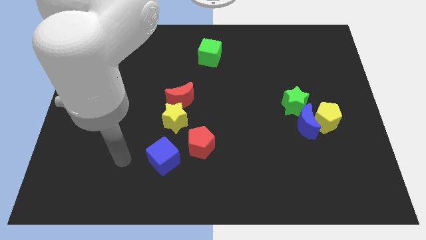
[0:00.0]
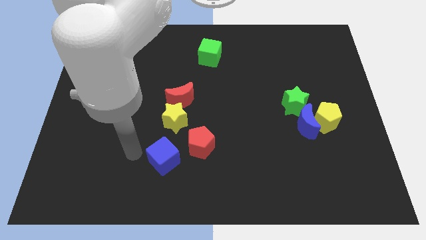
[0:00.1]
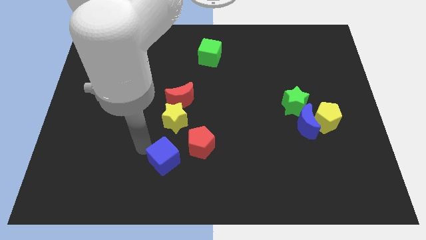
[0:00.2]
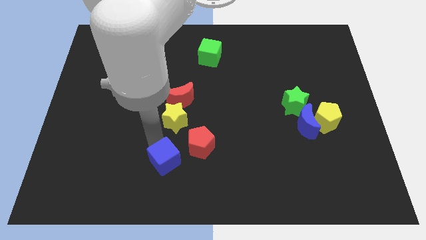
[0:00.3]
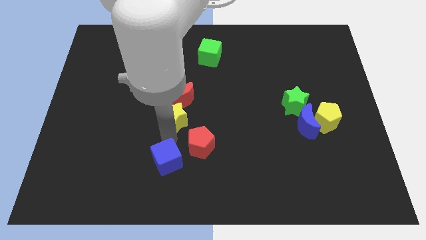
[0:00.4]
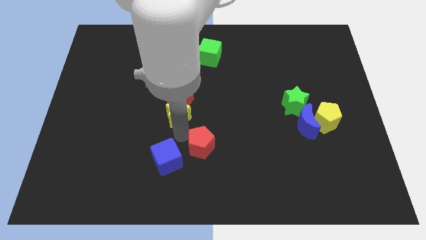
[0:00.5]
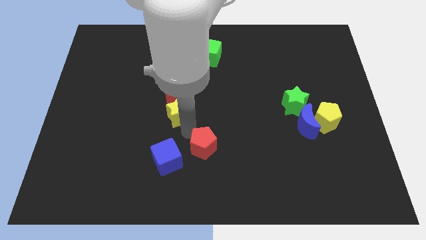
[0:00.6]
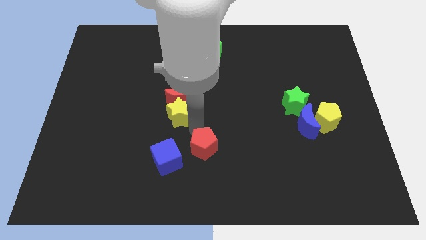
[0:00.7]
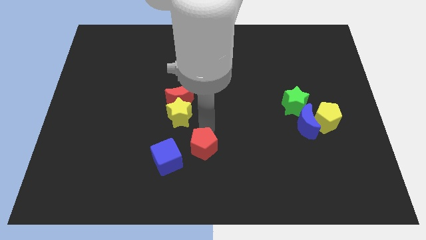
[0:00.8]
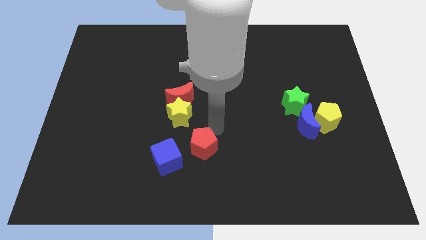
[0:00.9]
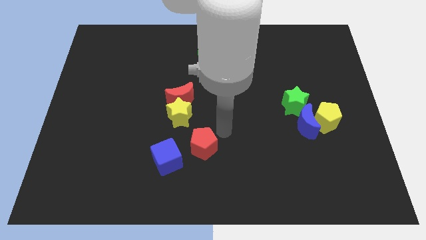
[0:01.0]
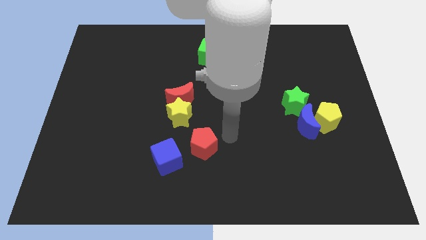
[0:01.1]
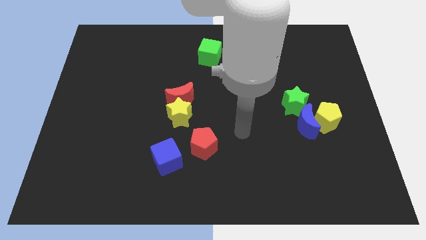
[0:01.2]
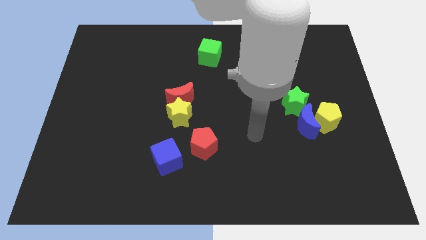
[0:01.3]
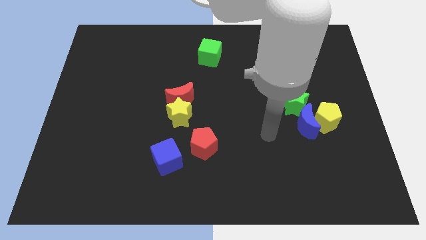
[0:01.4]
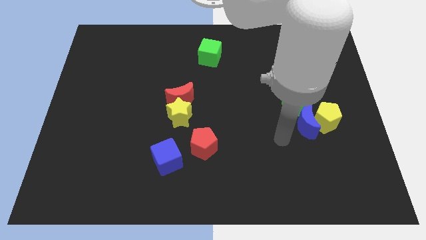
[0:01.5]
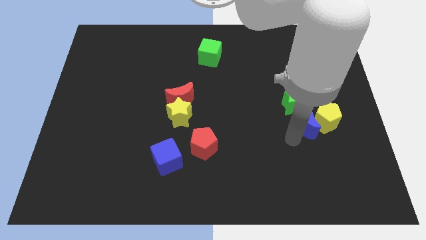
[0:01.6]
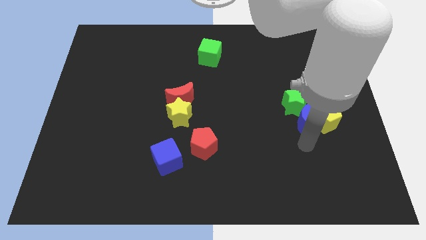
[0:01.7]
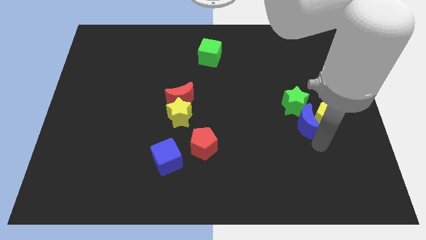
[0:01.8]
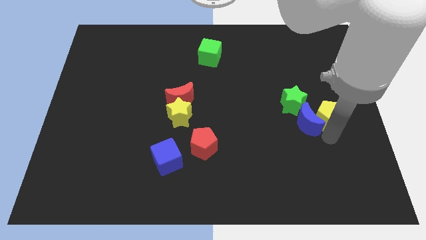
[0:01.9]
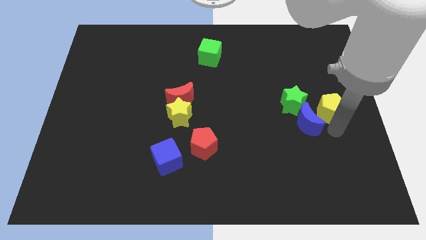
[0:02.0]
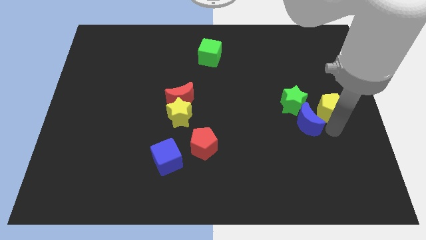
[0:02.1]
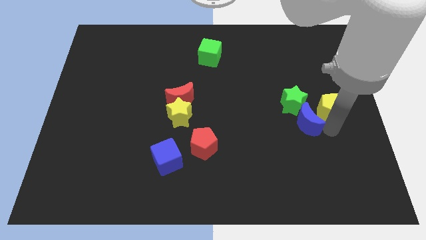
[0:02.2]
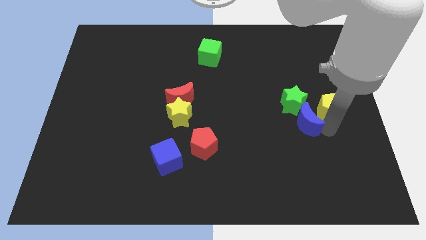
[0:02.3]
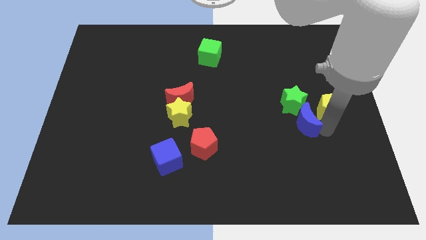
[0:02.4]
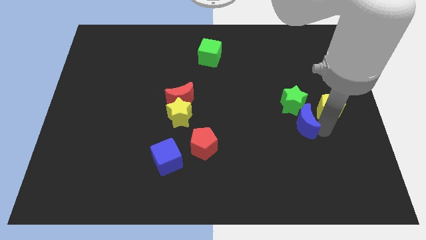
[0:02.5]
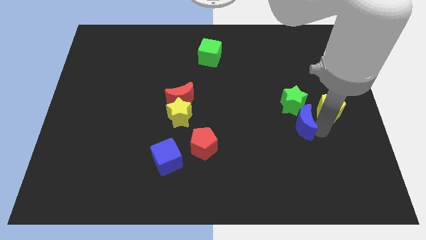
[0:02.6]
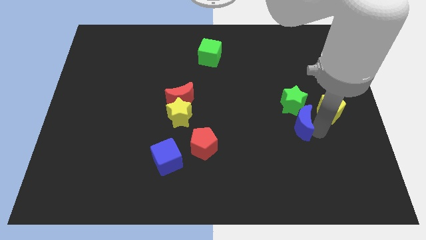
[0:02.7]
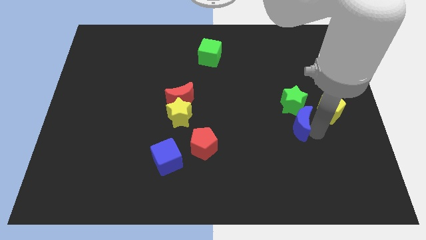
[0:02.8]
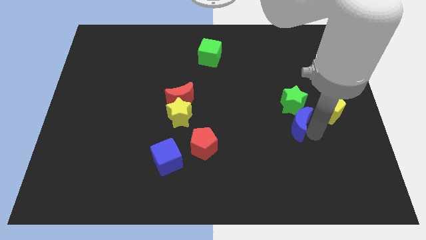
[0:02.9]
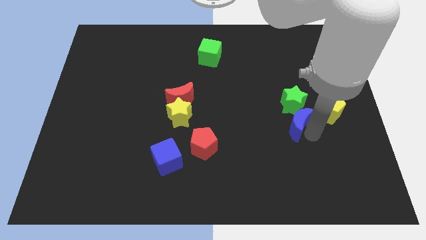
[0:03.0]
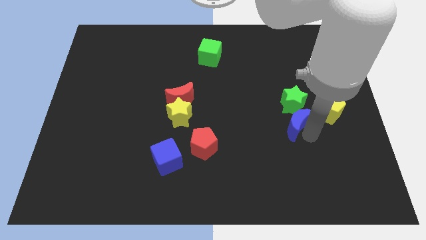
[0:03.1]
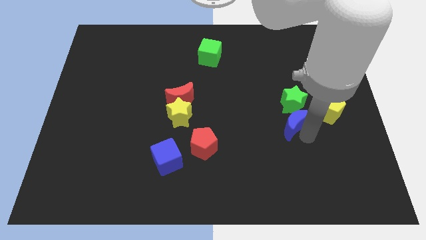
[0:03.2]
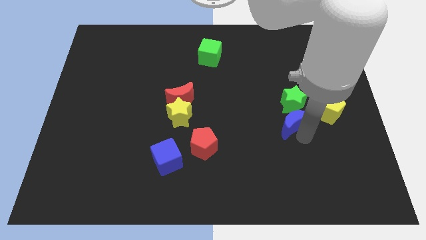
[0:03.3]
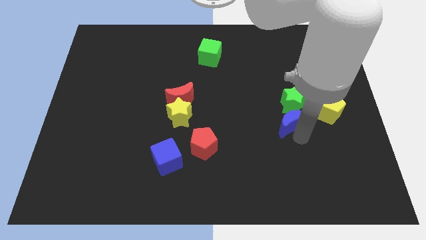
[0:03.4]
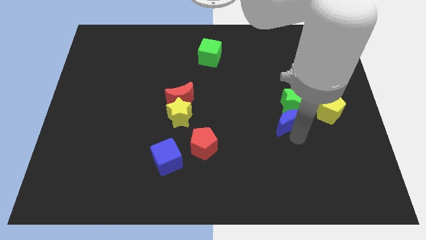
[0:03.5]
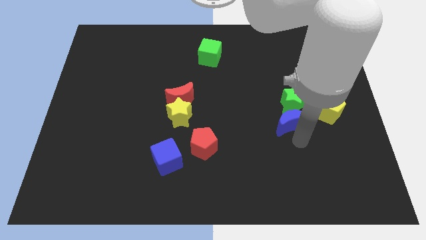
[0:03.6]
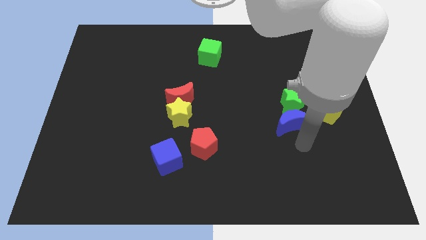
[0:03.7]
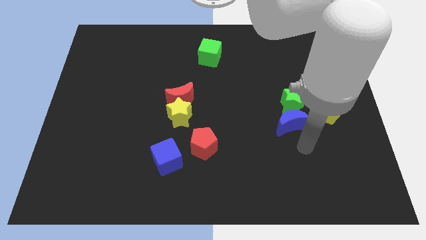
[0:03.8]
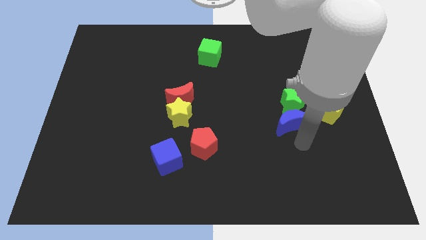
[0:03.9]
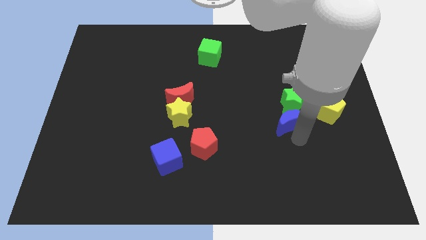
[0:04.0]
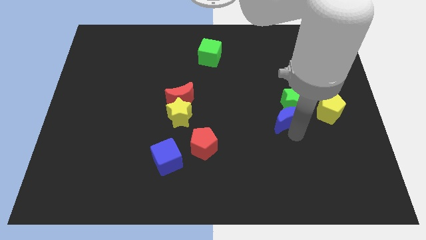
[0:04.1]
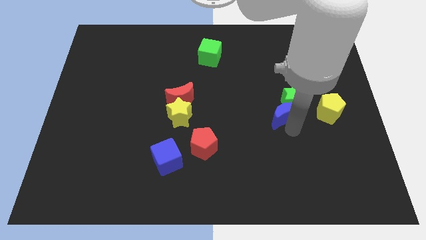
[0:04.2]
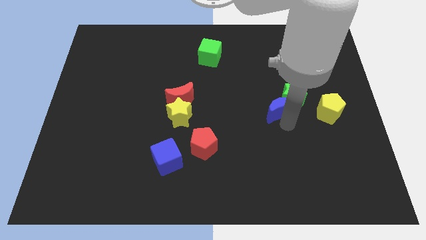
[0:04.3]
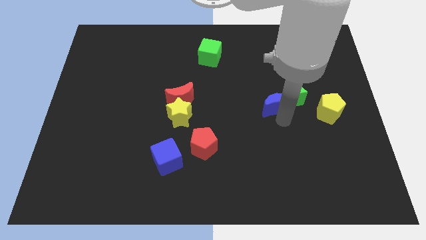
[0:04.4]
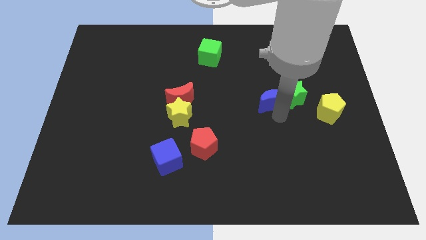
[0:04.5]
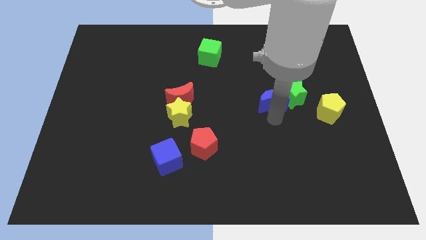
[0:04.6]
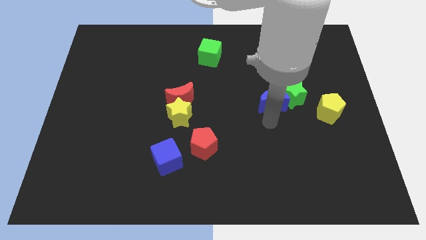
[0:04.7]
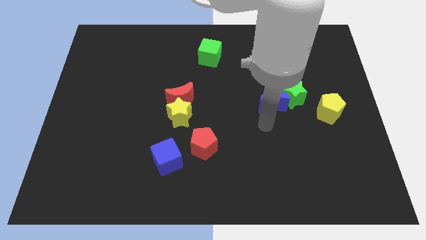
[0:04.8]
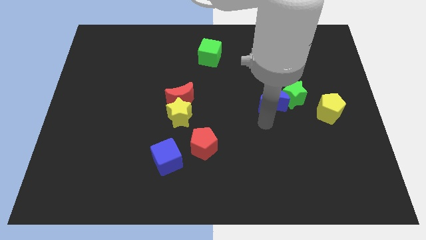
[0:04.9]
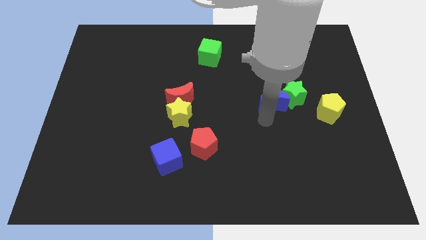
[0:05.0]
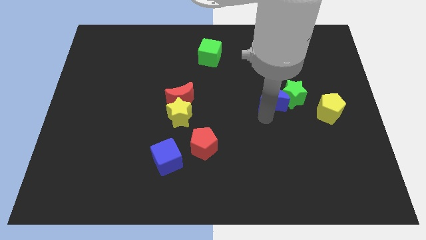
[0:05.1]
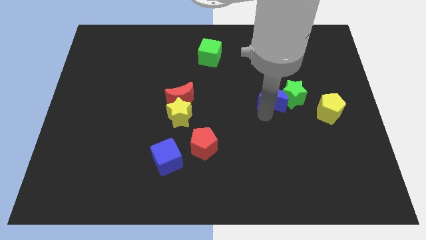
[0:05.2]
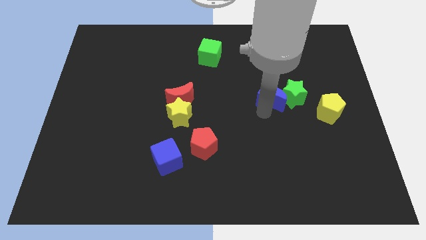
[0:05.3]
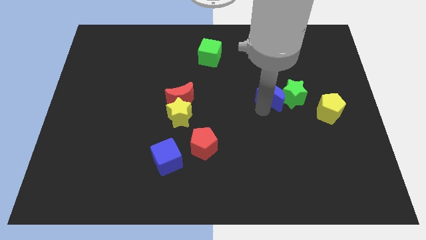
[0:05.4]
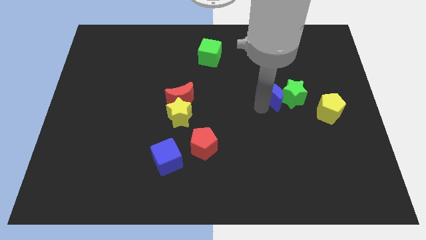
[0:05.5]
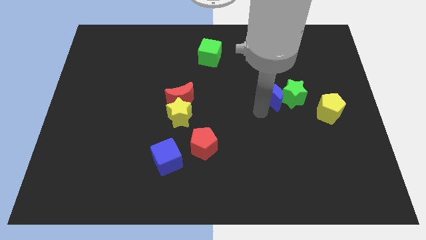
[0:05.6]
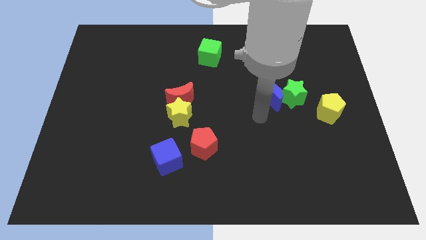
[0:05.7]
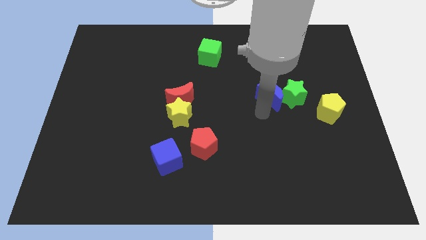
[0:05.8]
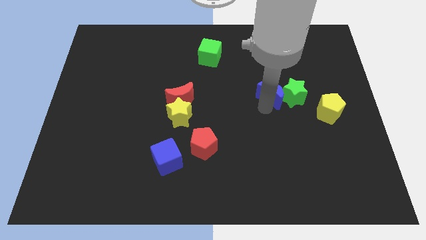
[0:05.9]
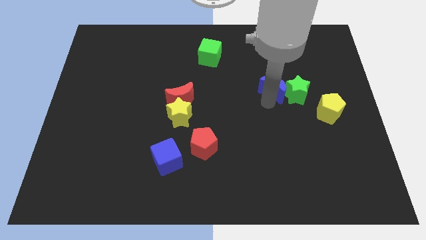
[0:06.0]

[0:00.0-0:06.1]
slide the blue moon somewhat upwards

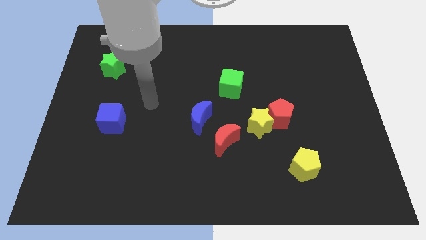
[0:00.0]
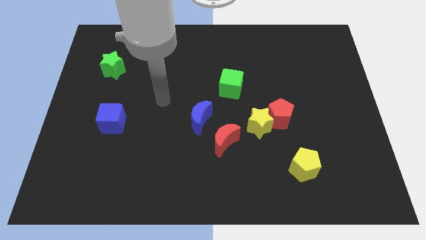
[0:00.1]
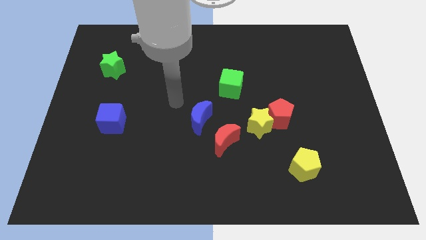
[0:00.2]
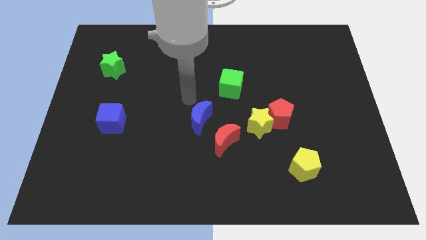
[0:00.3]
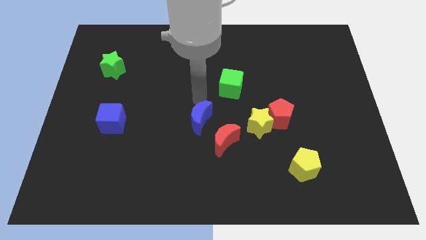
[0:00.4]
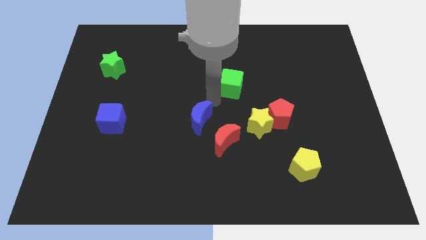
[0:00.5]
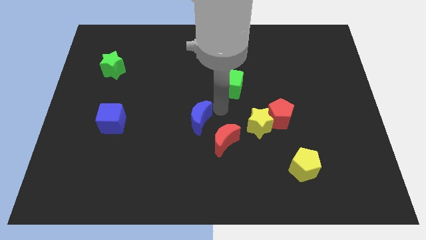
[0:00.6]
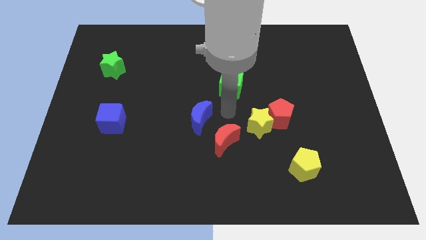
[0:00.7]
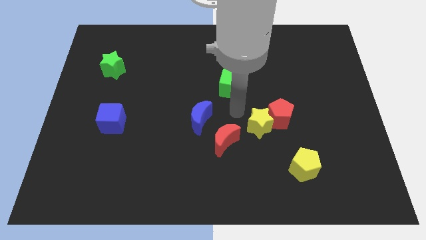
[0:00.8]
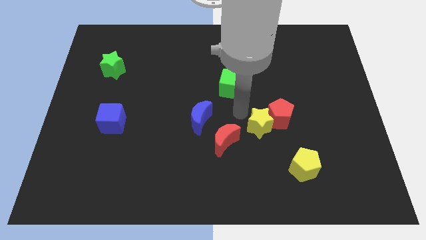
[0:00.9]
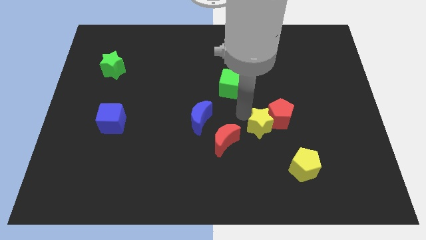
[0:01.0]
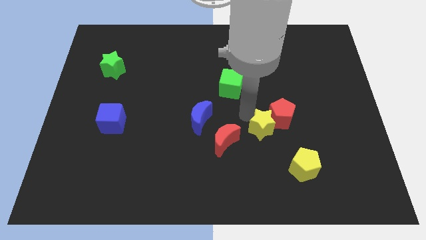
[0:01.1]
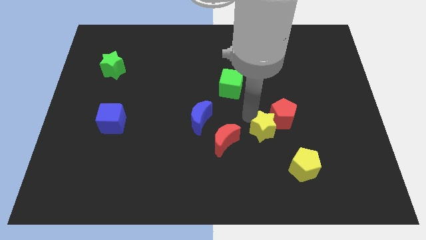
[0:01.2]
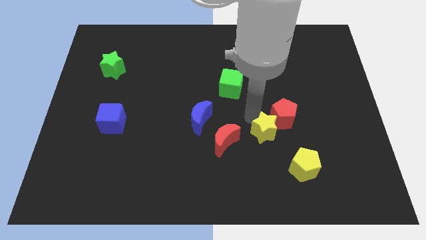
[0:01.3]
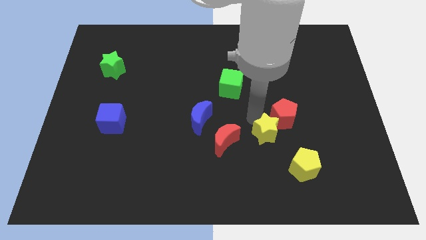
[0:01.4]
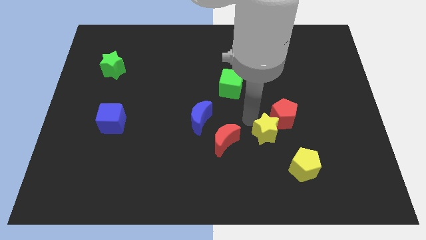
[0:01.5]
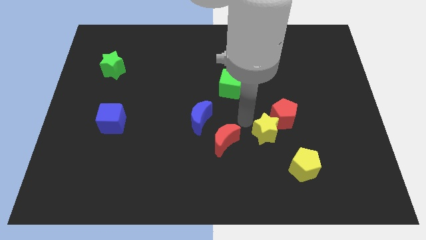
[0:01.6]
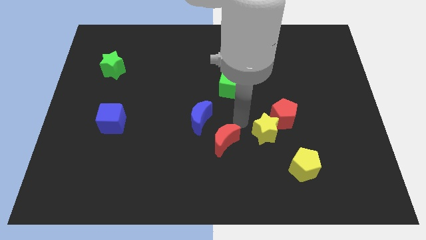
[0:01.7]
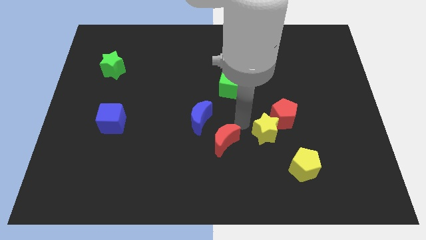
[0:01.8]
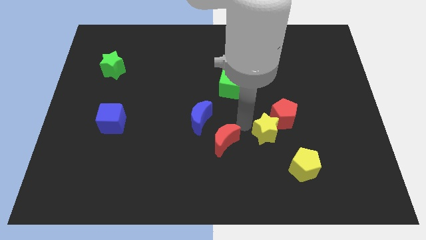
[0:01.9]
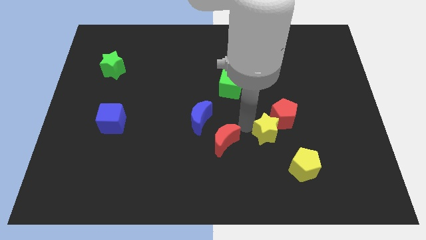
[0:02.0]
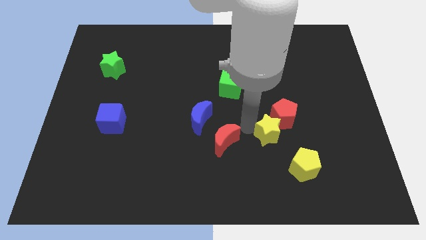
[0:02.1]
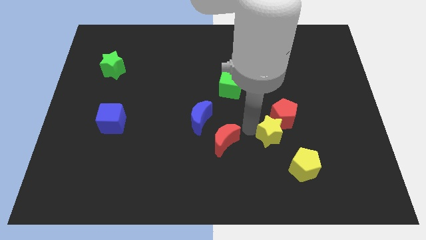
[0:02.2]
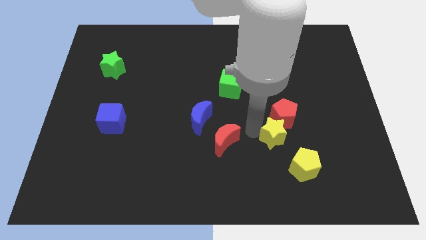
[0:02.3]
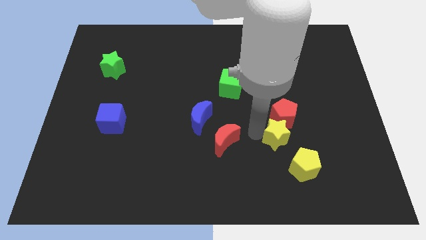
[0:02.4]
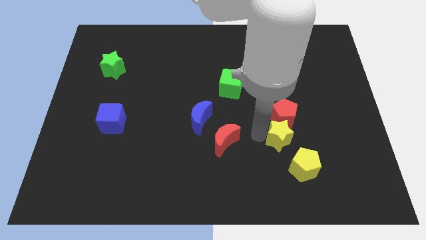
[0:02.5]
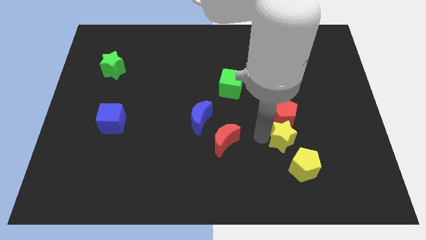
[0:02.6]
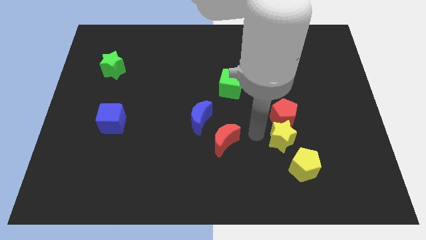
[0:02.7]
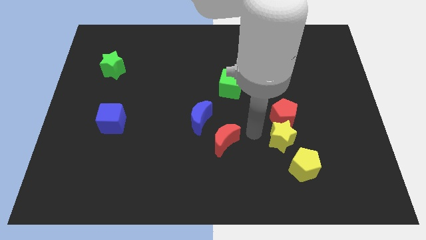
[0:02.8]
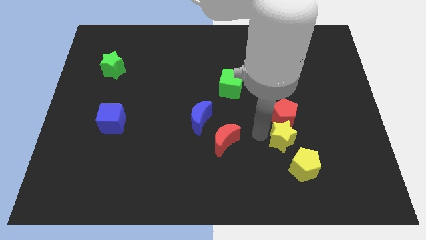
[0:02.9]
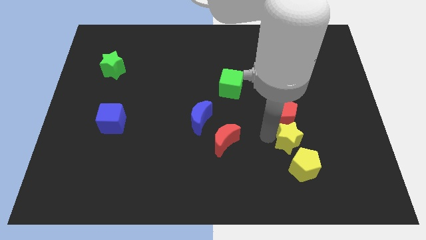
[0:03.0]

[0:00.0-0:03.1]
push the yellow star downwards and right a bit
